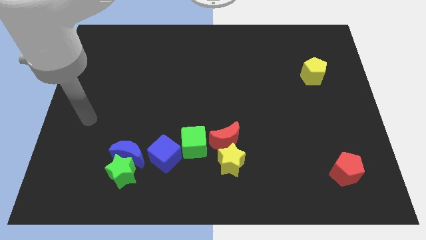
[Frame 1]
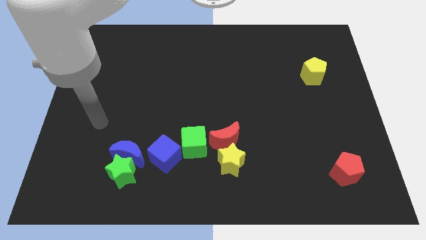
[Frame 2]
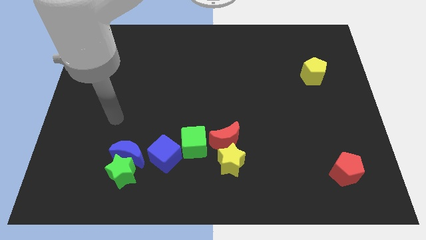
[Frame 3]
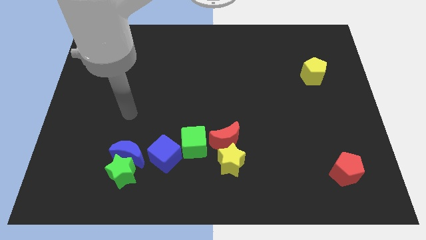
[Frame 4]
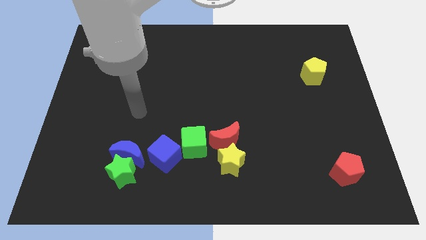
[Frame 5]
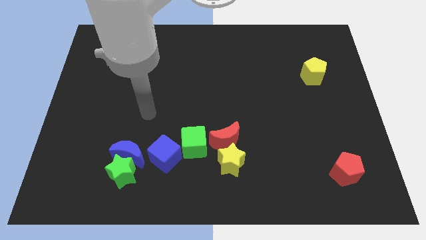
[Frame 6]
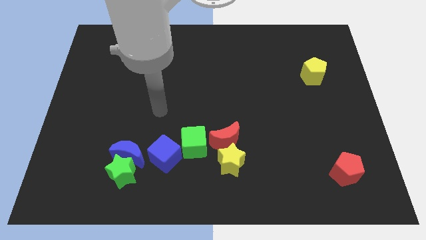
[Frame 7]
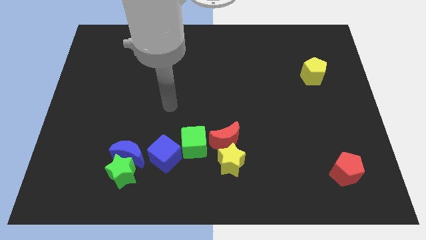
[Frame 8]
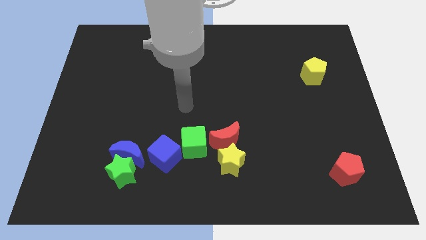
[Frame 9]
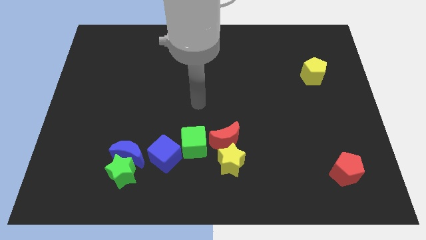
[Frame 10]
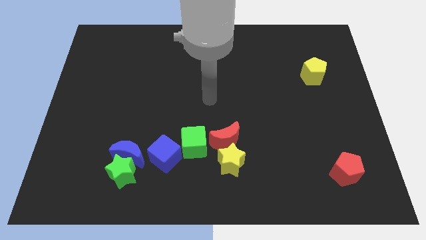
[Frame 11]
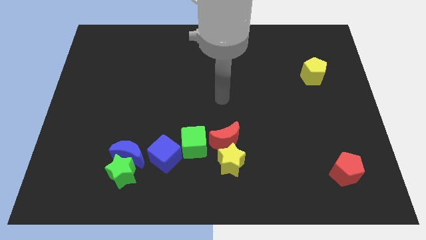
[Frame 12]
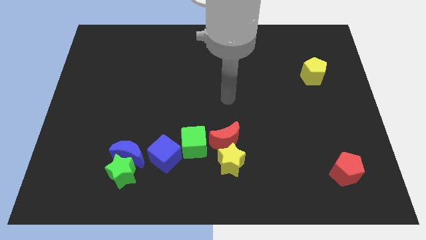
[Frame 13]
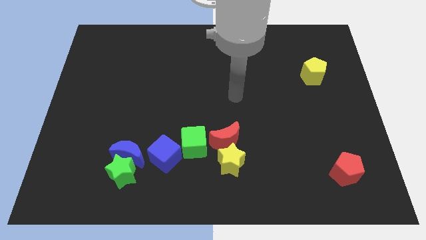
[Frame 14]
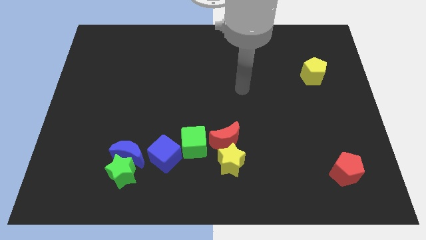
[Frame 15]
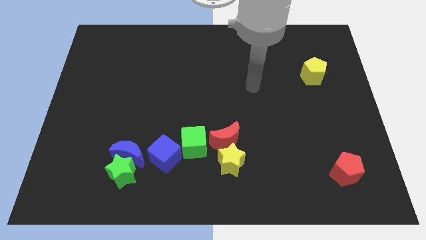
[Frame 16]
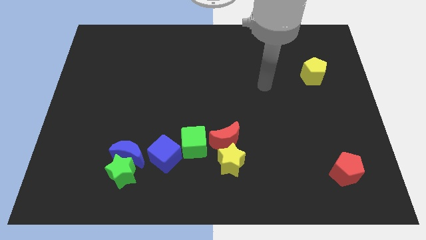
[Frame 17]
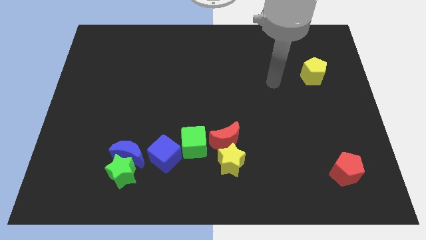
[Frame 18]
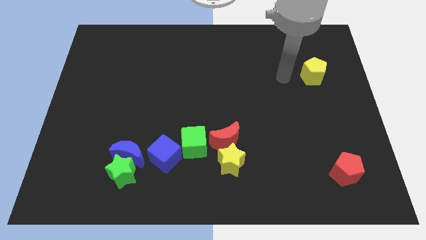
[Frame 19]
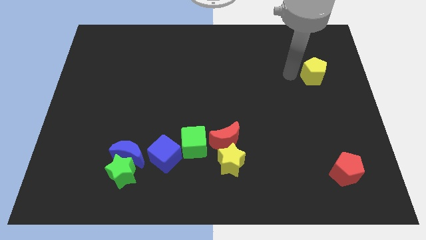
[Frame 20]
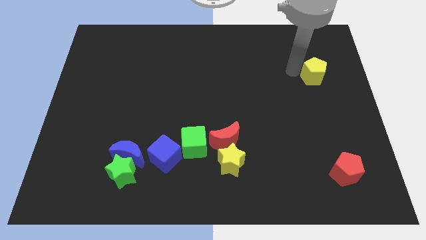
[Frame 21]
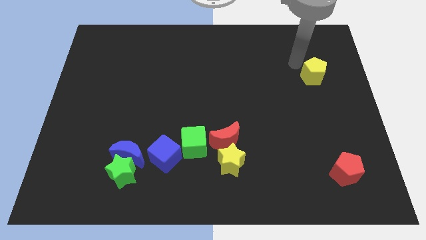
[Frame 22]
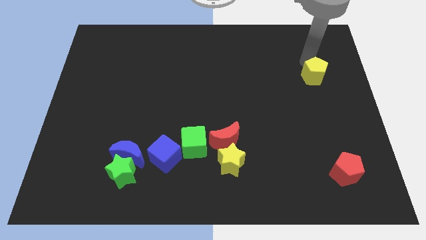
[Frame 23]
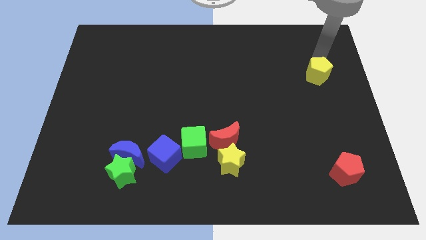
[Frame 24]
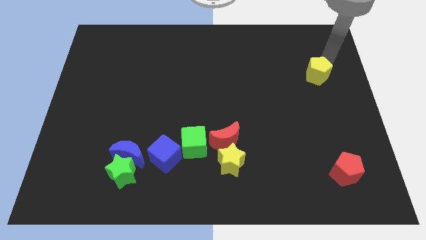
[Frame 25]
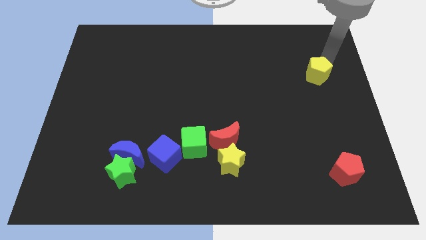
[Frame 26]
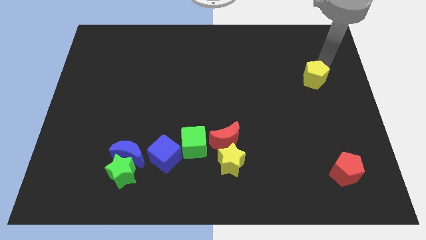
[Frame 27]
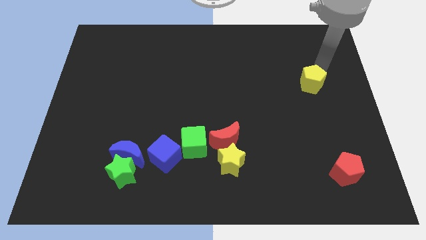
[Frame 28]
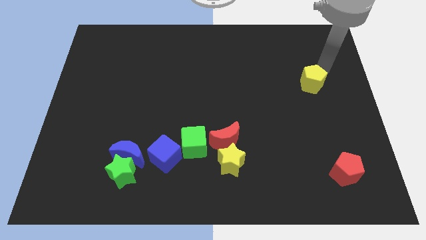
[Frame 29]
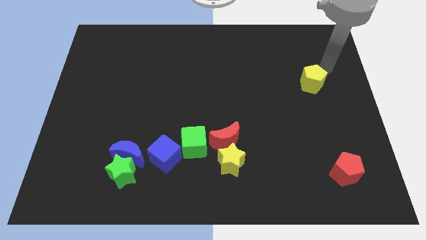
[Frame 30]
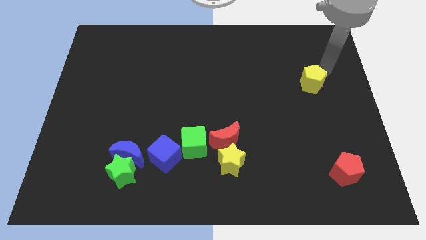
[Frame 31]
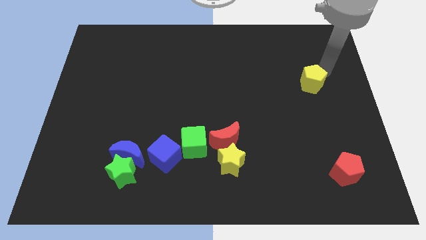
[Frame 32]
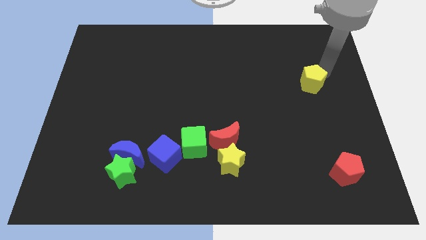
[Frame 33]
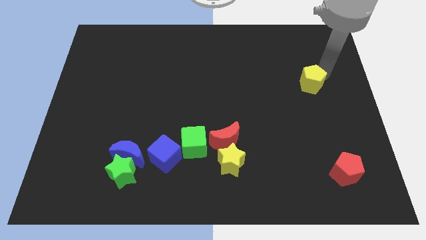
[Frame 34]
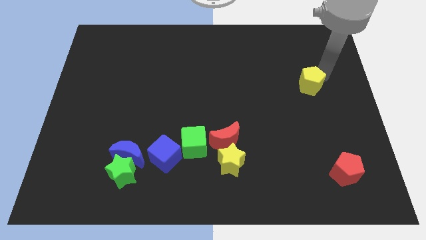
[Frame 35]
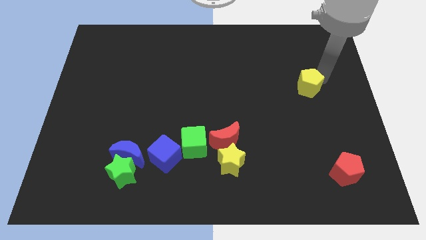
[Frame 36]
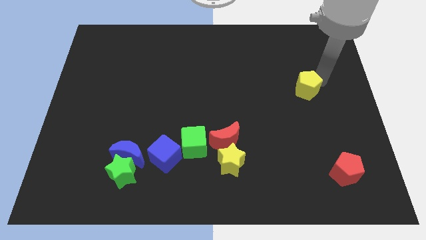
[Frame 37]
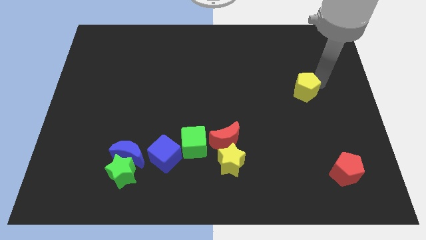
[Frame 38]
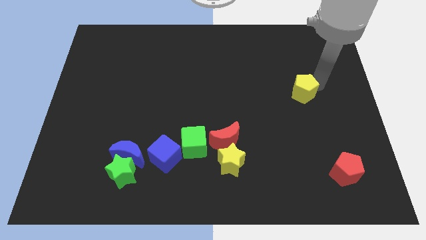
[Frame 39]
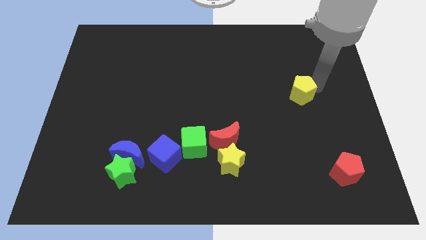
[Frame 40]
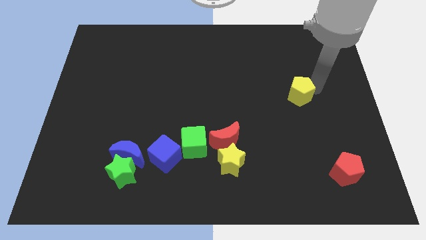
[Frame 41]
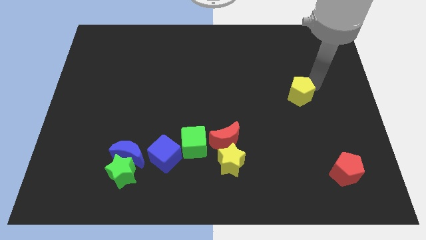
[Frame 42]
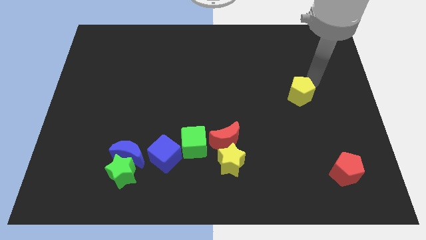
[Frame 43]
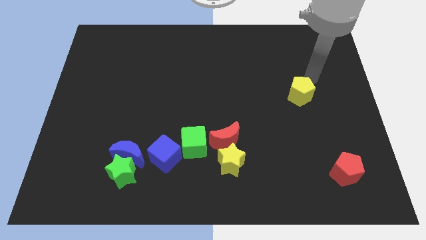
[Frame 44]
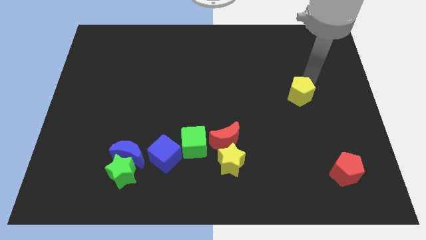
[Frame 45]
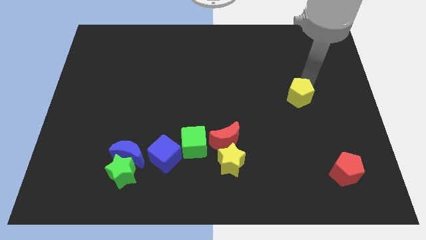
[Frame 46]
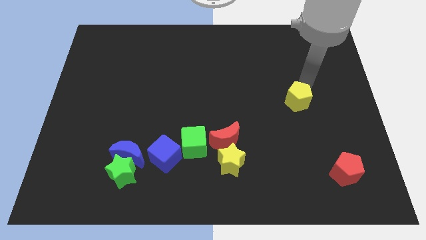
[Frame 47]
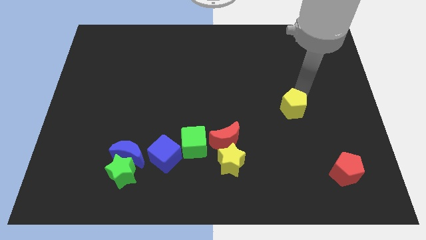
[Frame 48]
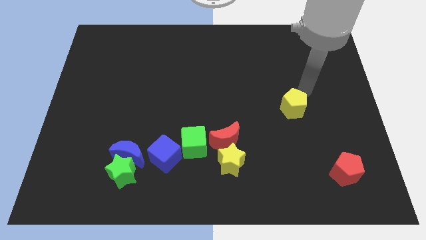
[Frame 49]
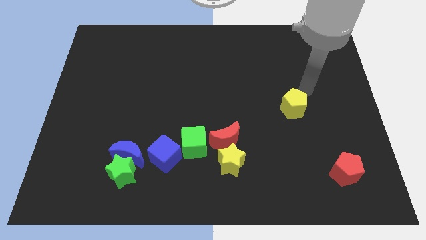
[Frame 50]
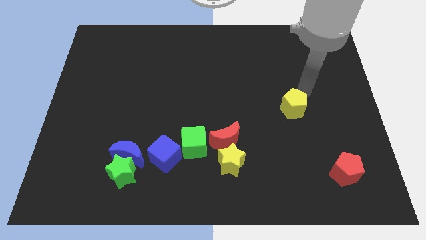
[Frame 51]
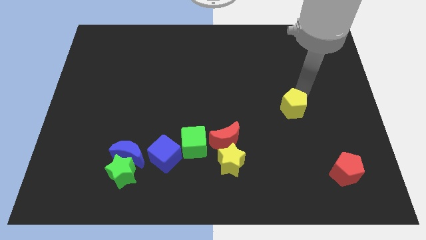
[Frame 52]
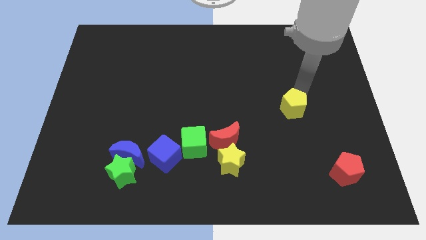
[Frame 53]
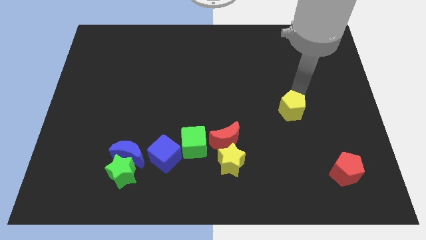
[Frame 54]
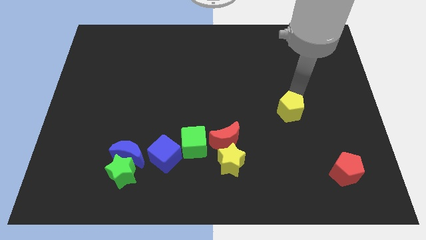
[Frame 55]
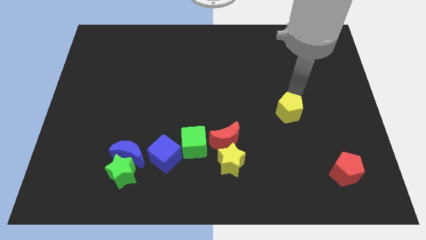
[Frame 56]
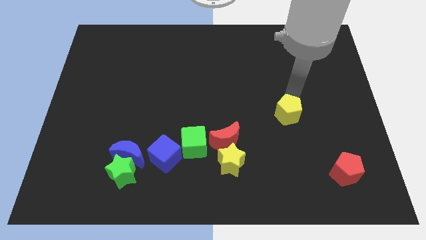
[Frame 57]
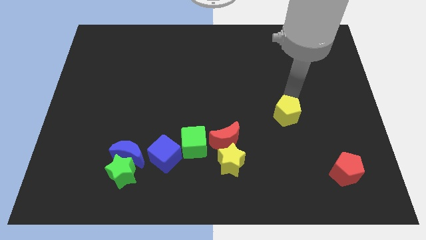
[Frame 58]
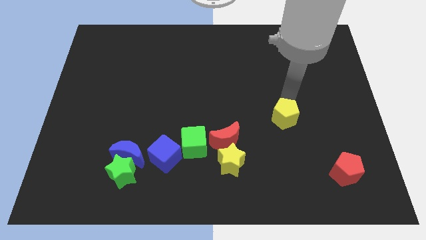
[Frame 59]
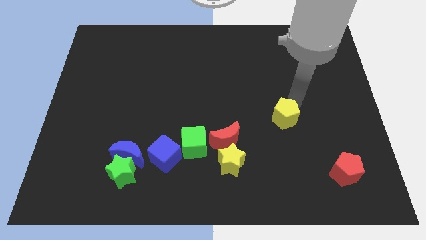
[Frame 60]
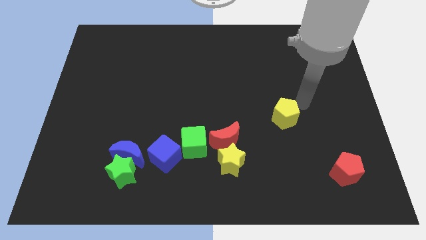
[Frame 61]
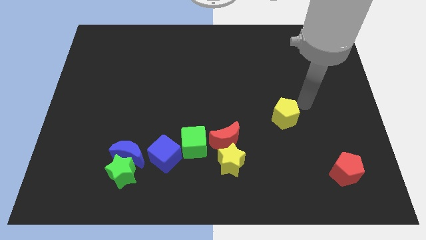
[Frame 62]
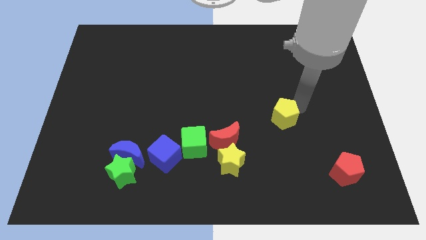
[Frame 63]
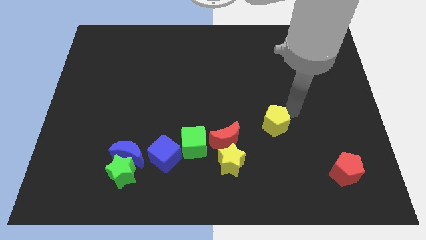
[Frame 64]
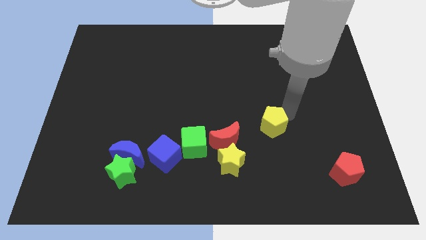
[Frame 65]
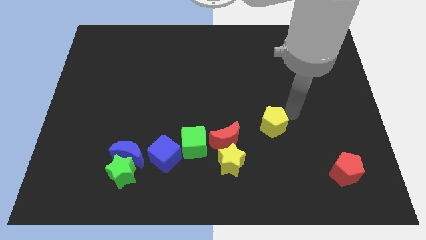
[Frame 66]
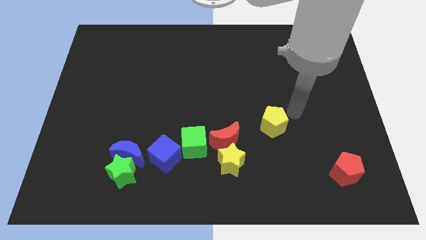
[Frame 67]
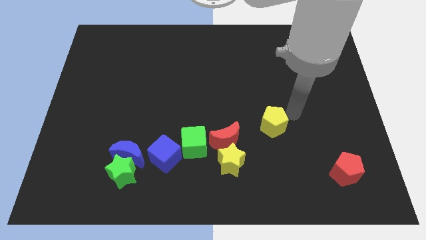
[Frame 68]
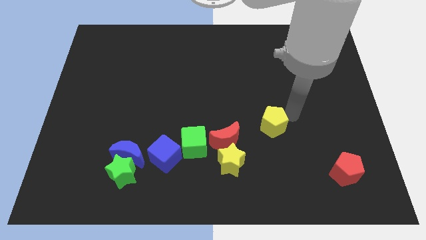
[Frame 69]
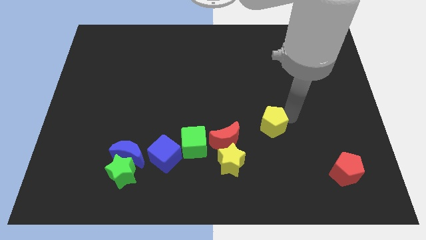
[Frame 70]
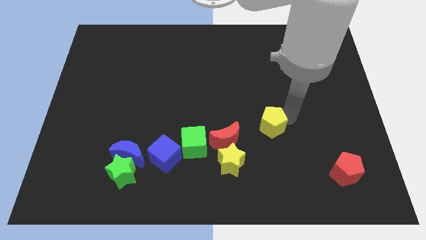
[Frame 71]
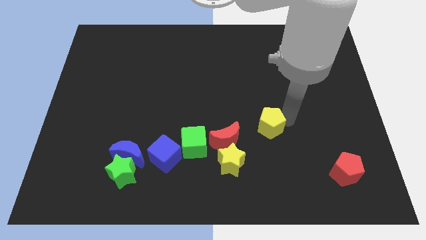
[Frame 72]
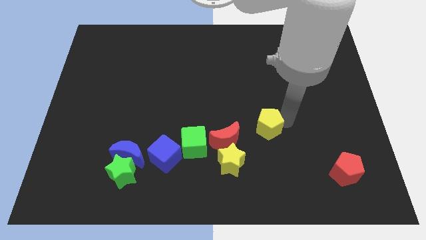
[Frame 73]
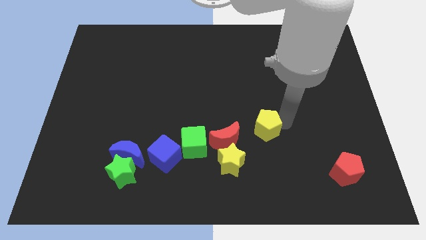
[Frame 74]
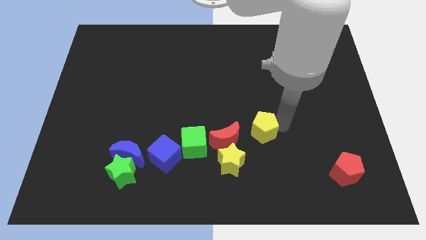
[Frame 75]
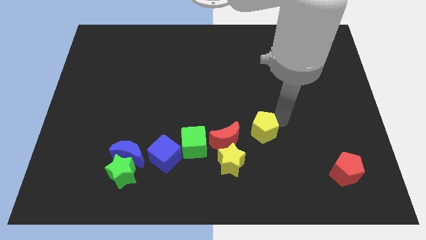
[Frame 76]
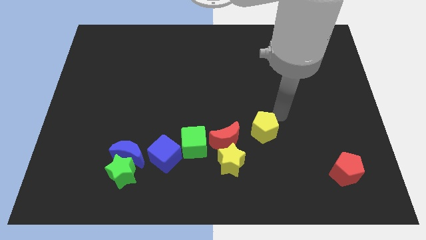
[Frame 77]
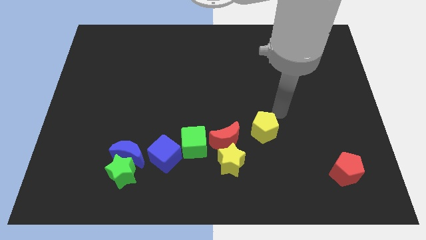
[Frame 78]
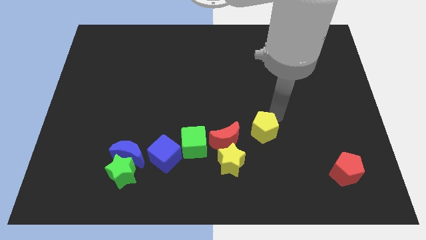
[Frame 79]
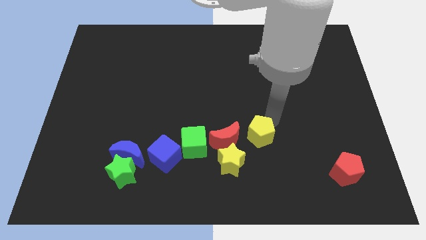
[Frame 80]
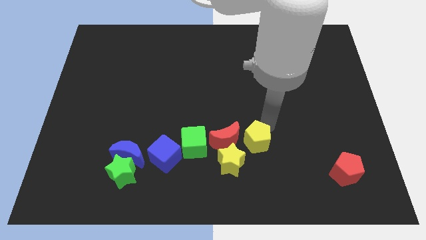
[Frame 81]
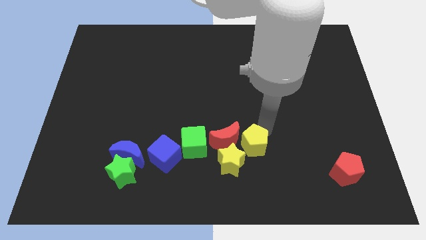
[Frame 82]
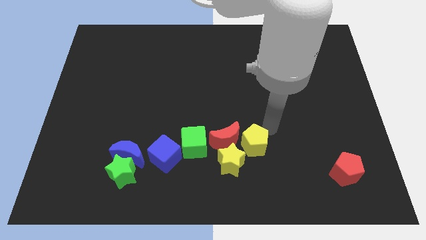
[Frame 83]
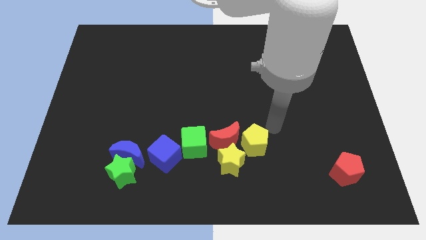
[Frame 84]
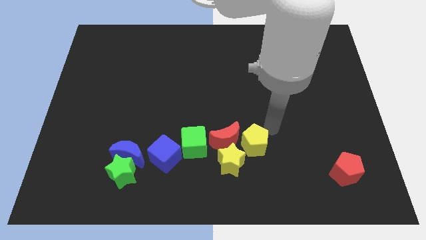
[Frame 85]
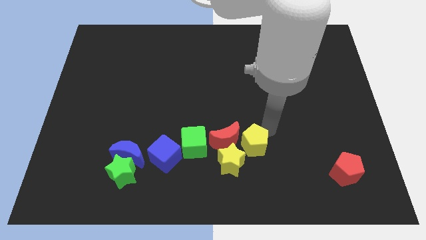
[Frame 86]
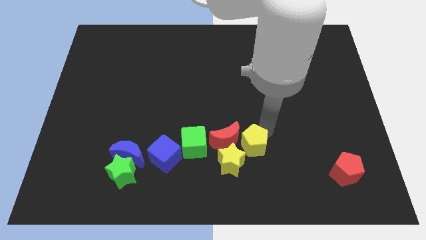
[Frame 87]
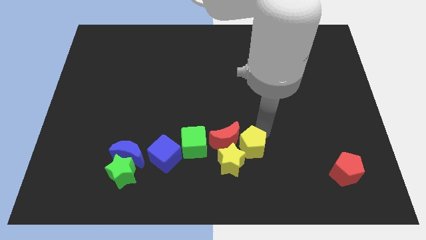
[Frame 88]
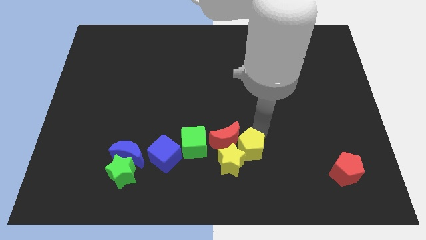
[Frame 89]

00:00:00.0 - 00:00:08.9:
put the yellow pentagon towards the yellow star
